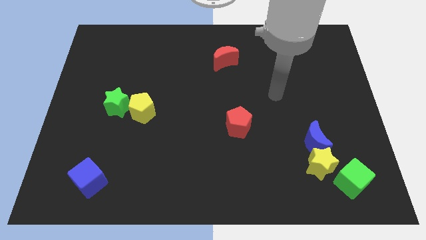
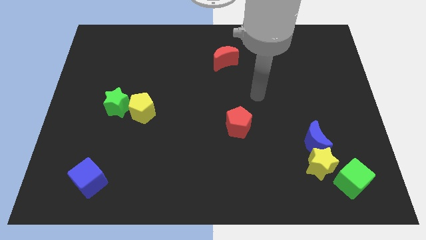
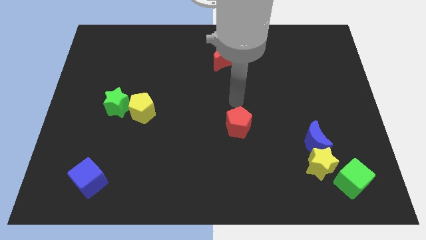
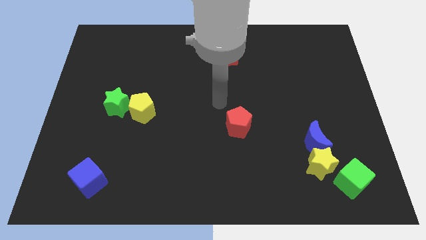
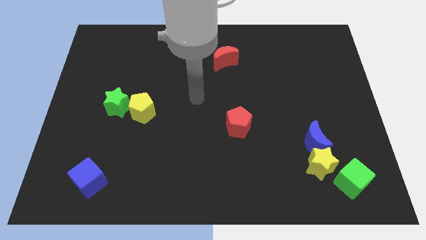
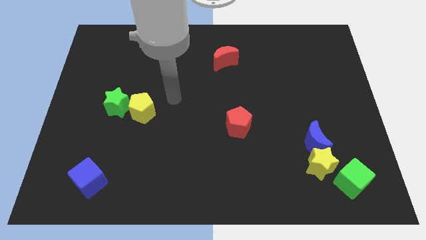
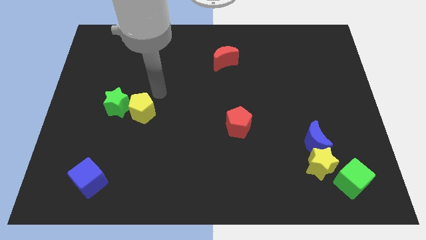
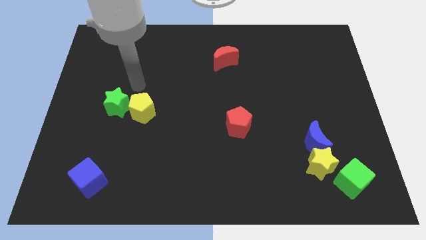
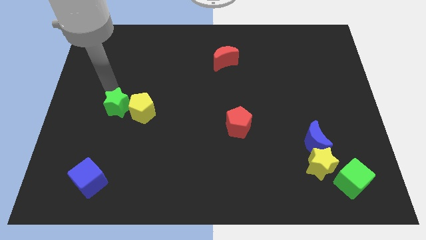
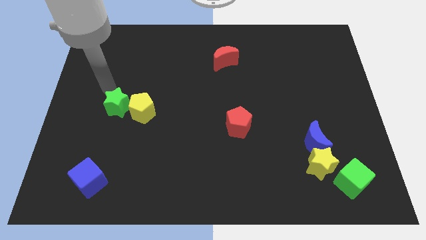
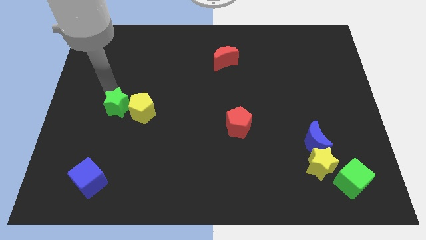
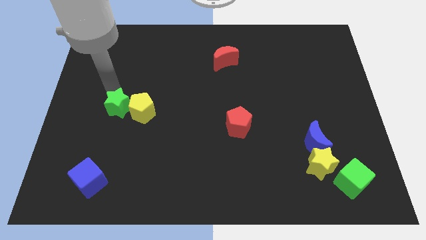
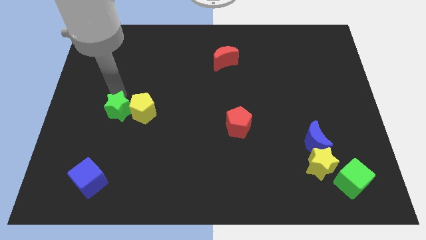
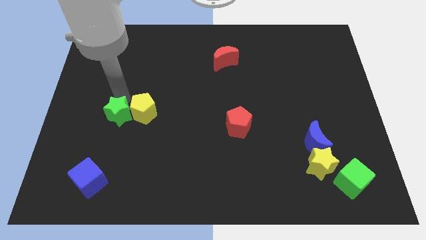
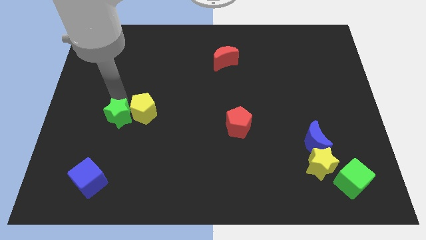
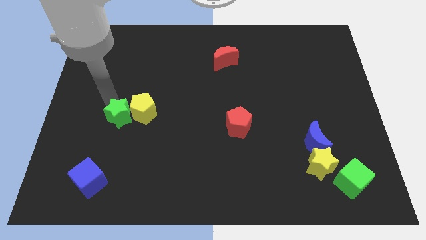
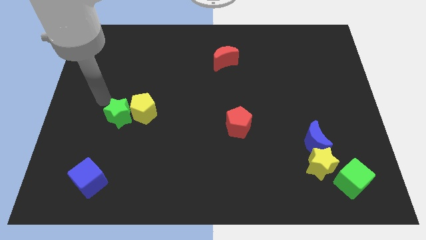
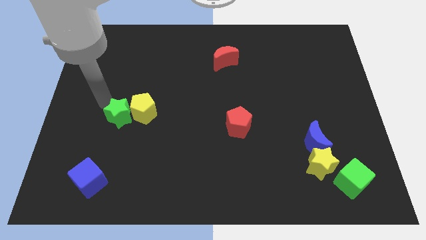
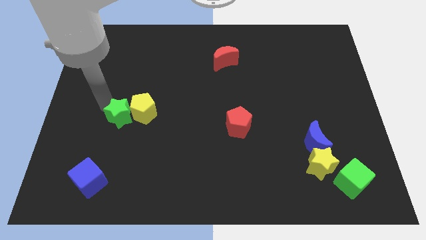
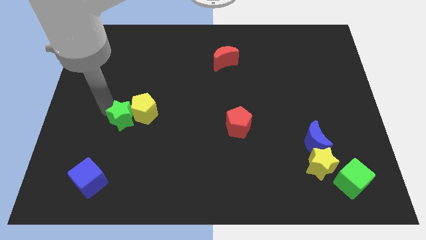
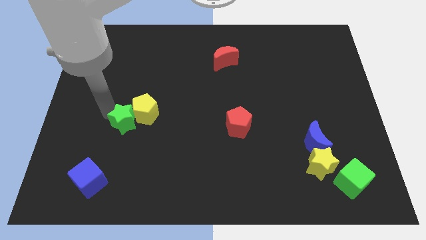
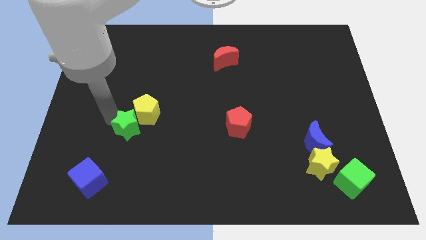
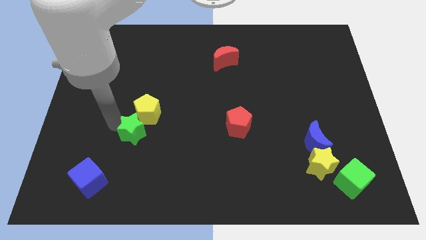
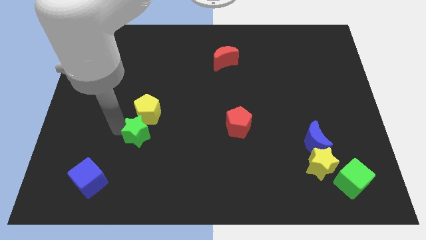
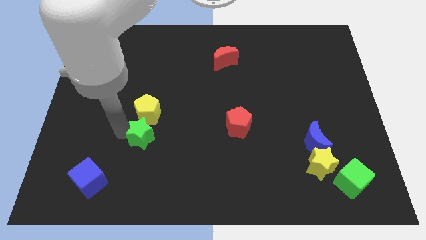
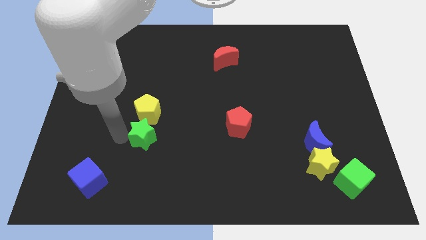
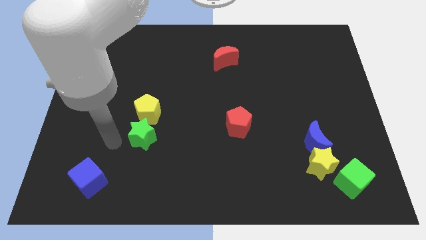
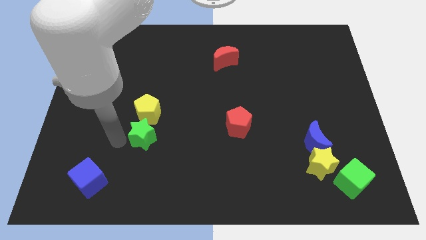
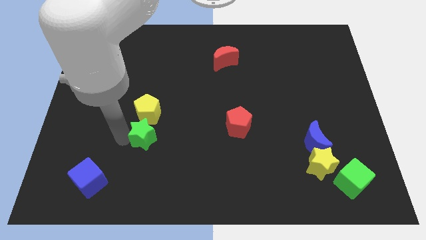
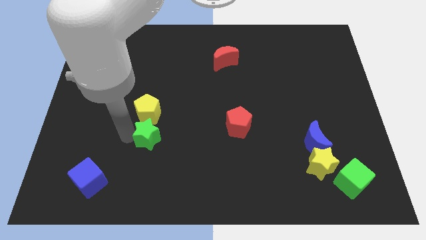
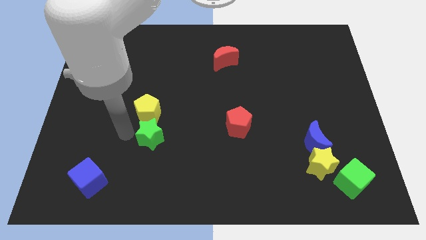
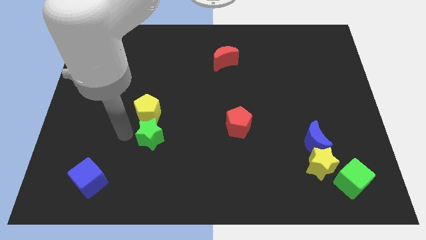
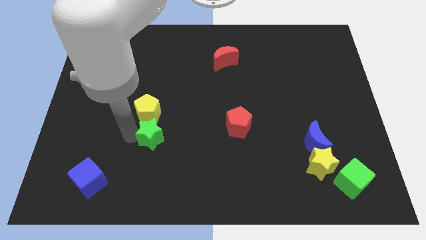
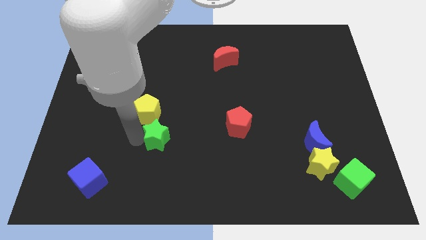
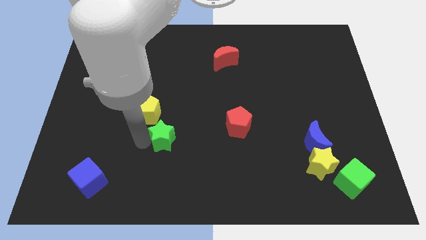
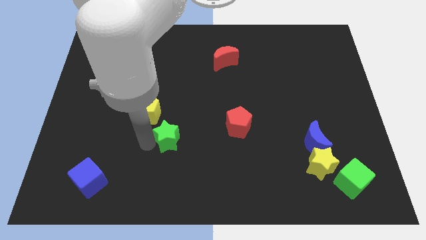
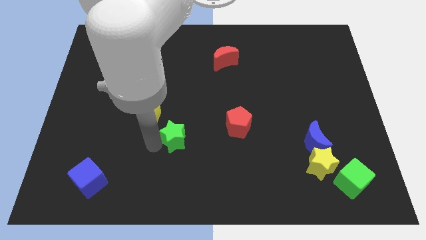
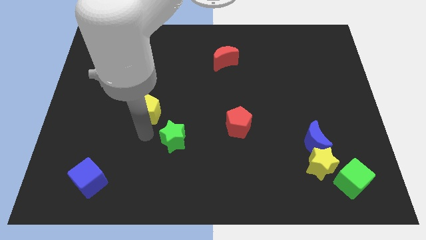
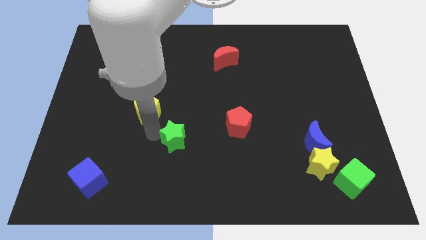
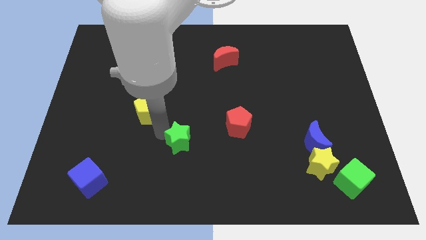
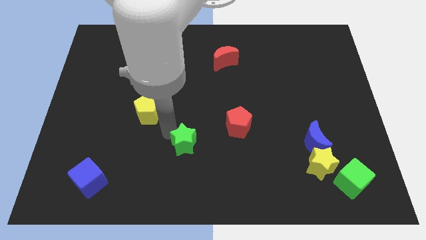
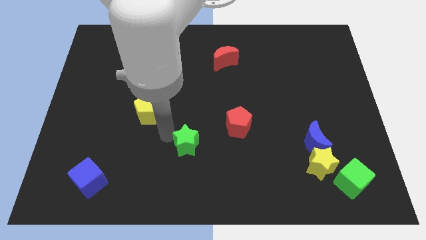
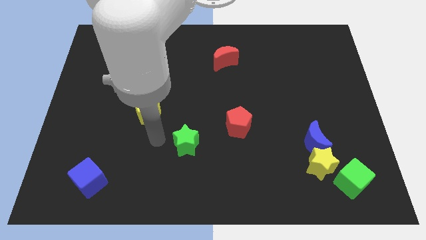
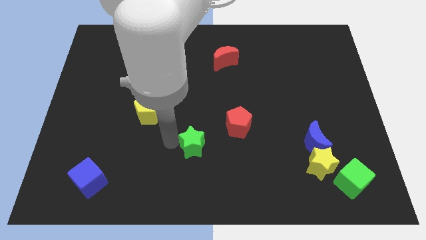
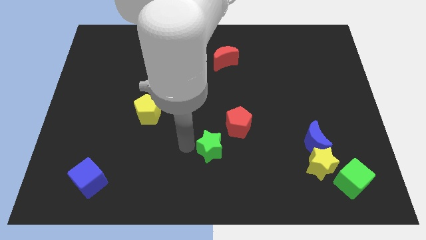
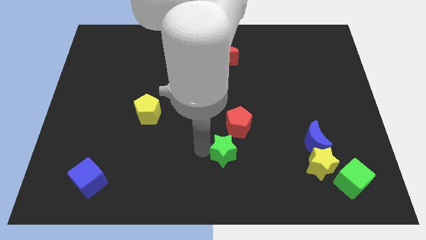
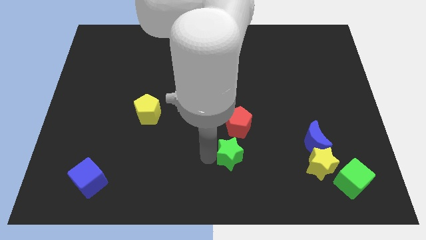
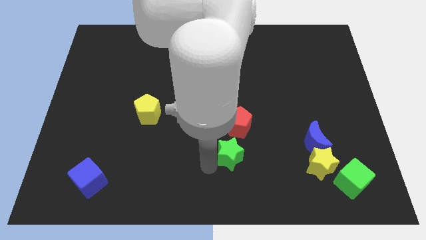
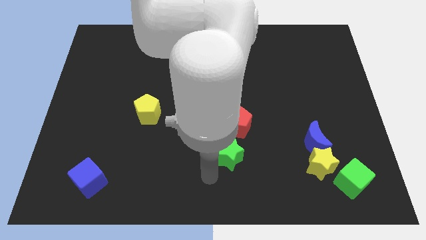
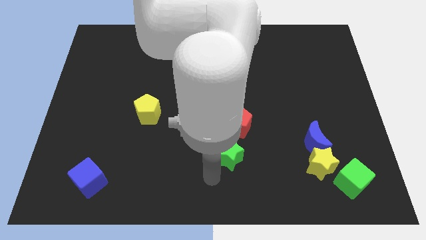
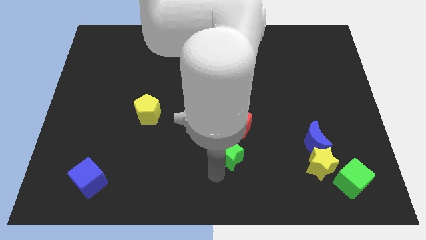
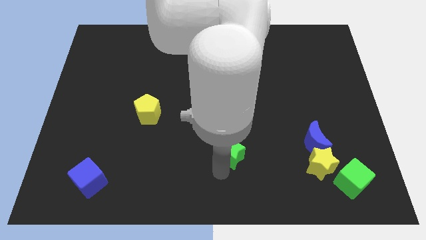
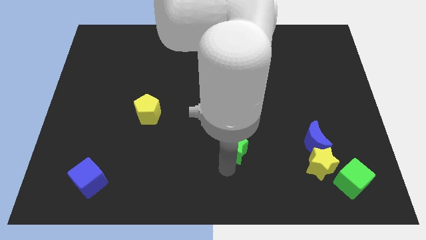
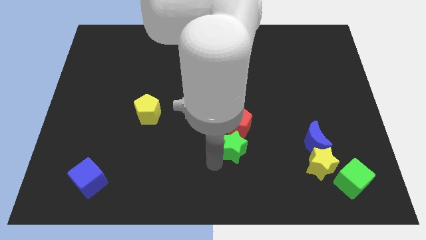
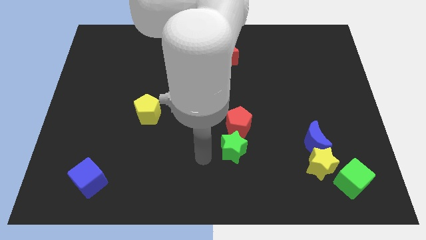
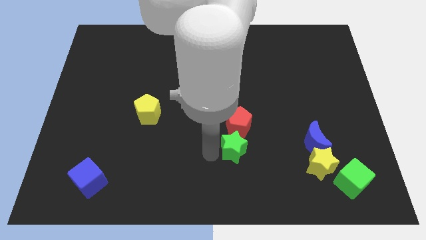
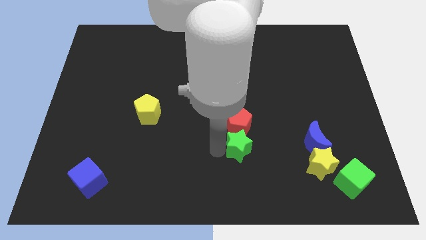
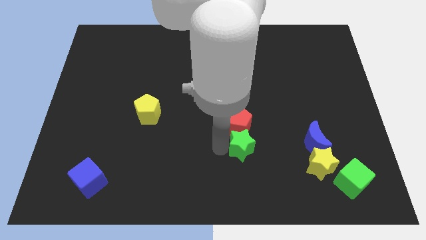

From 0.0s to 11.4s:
slide the green star to the left side of the blue moon
